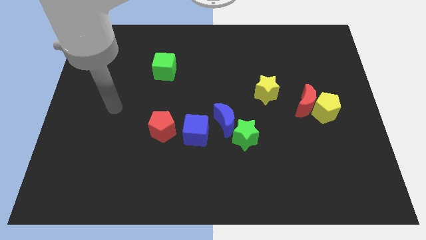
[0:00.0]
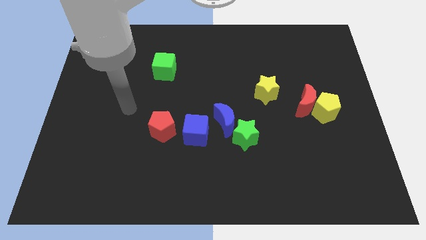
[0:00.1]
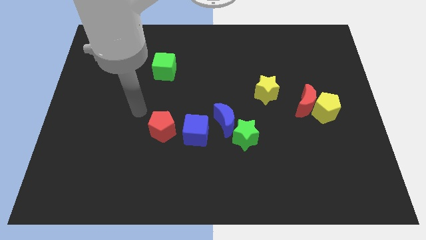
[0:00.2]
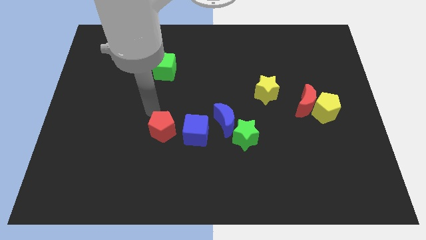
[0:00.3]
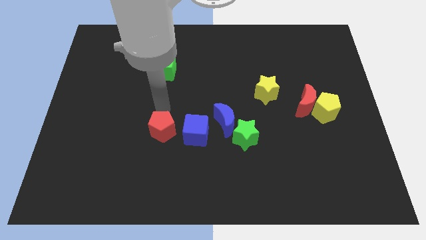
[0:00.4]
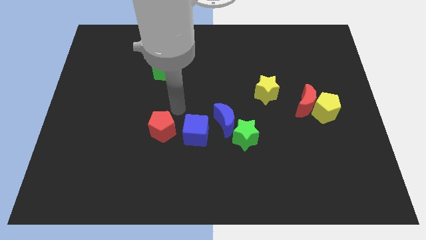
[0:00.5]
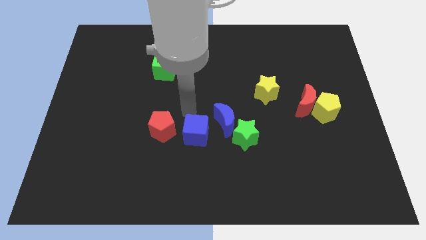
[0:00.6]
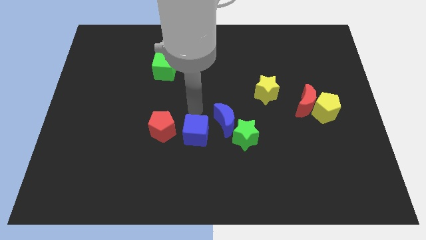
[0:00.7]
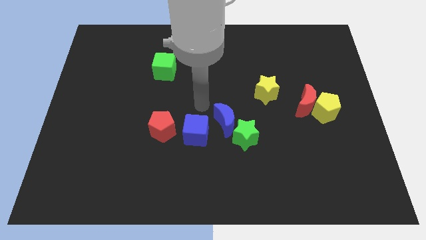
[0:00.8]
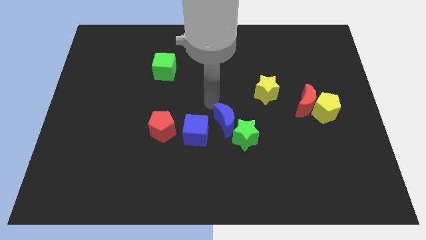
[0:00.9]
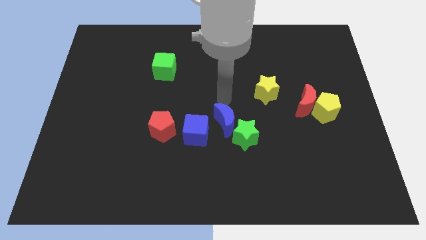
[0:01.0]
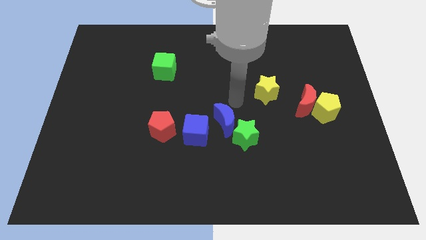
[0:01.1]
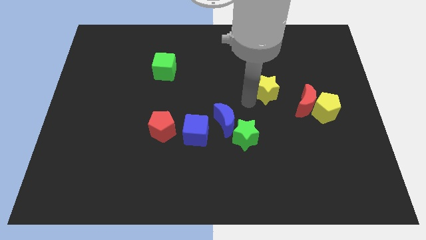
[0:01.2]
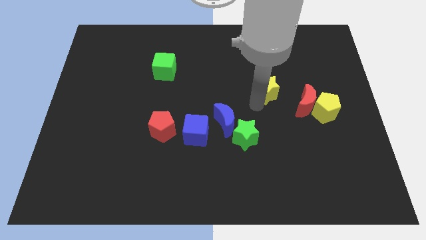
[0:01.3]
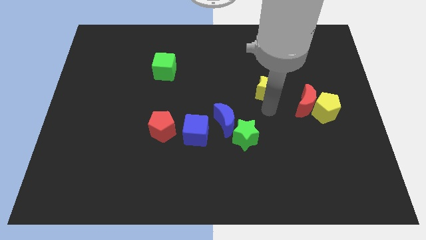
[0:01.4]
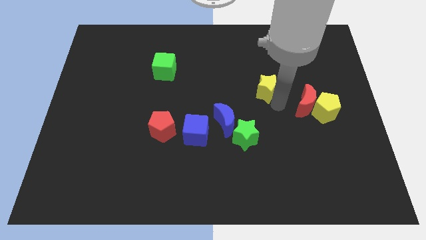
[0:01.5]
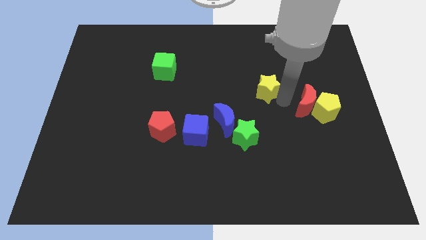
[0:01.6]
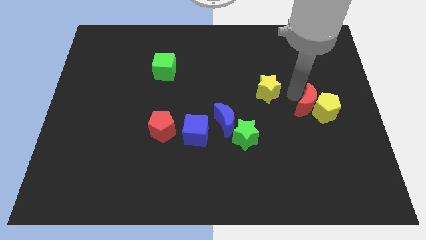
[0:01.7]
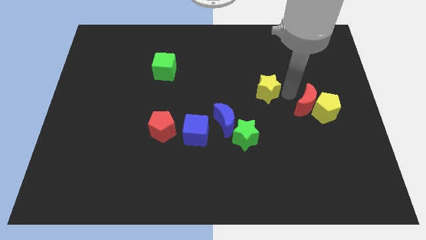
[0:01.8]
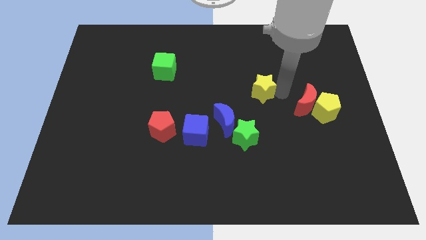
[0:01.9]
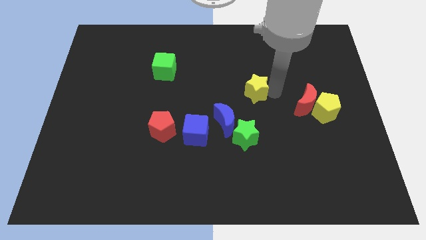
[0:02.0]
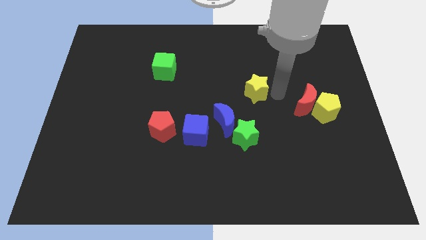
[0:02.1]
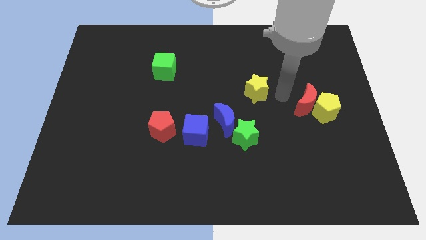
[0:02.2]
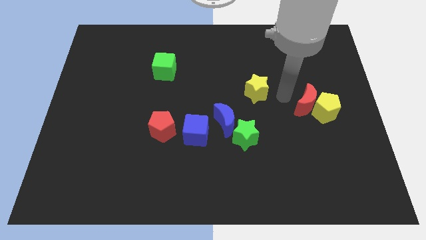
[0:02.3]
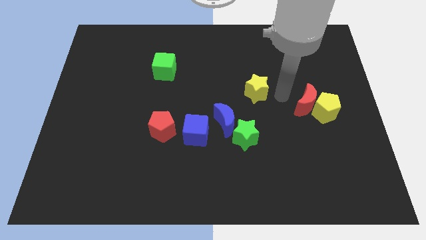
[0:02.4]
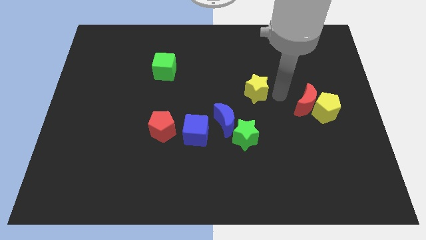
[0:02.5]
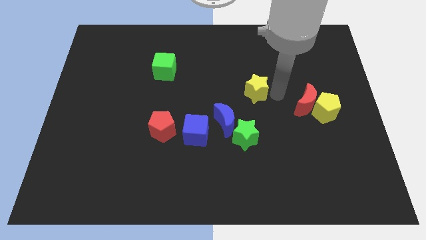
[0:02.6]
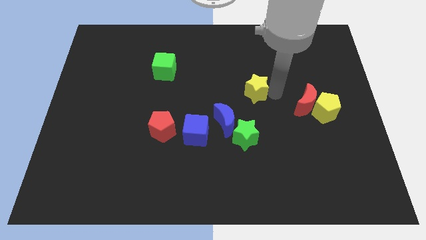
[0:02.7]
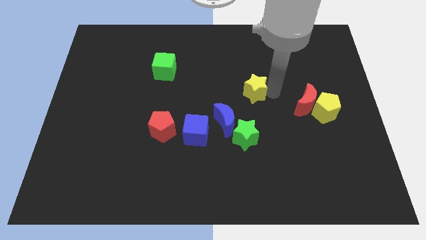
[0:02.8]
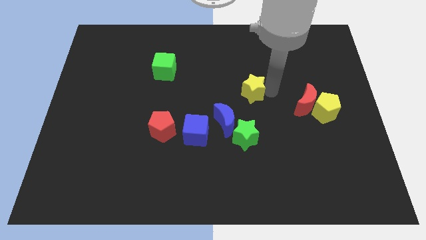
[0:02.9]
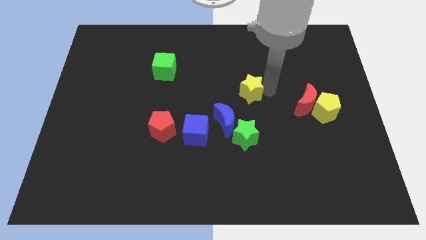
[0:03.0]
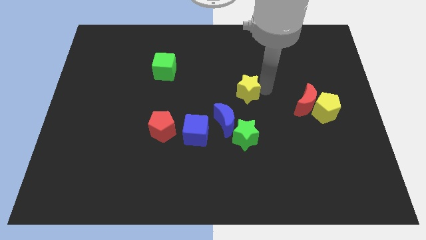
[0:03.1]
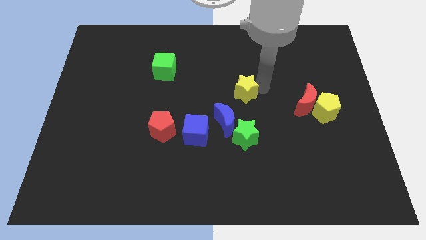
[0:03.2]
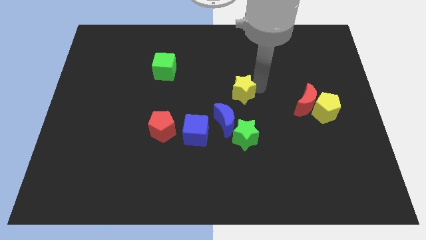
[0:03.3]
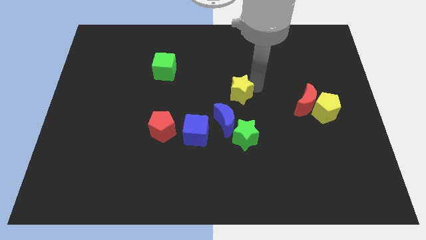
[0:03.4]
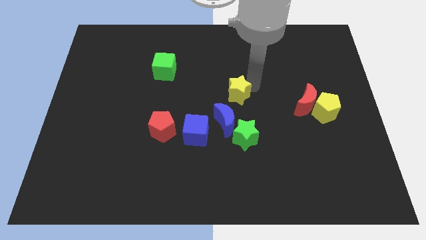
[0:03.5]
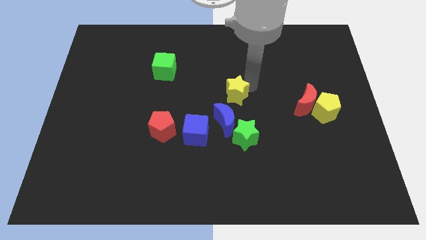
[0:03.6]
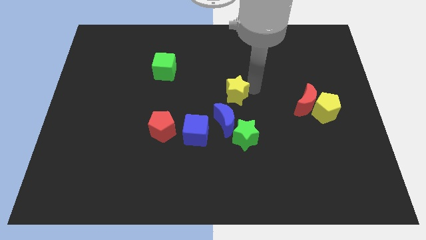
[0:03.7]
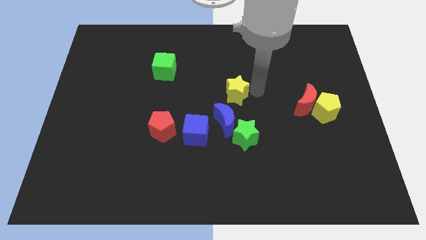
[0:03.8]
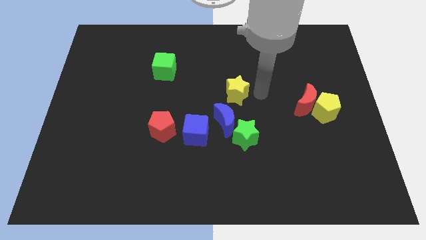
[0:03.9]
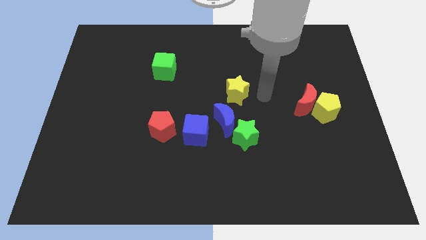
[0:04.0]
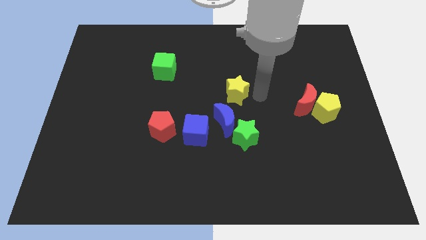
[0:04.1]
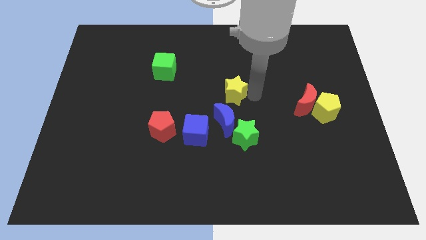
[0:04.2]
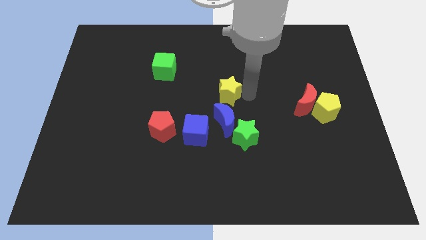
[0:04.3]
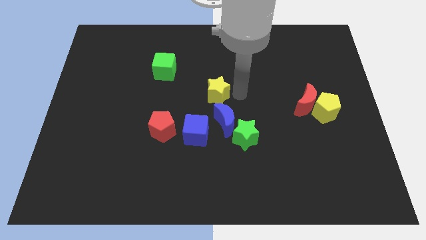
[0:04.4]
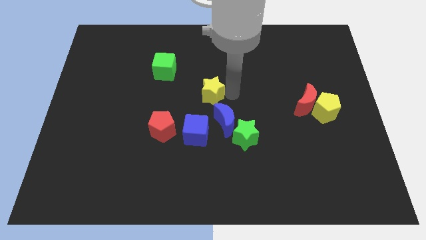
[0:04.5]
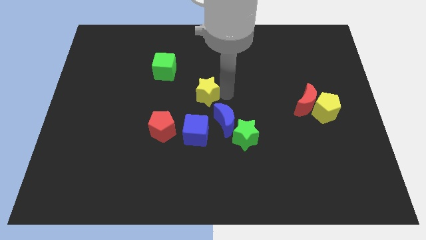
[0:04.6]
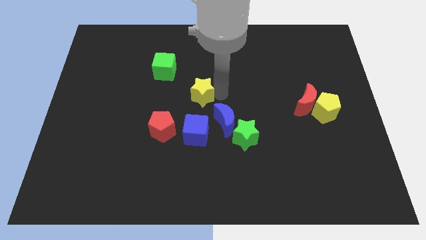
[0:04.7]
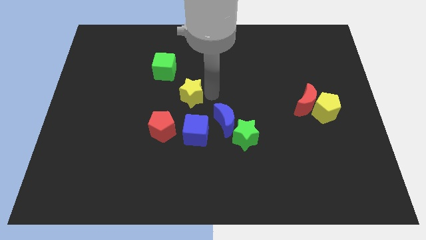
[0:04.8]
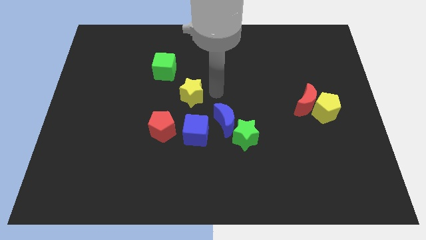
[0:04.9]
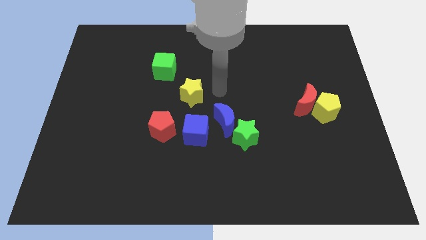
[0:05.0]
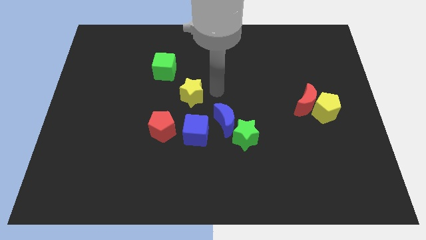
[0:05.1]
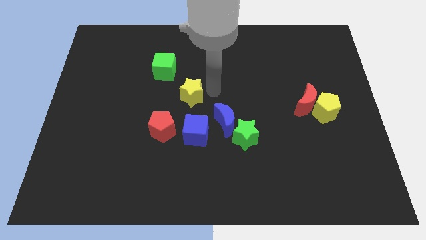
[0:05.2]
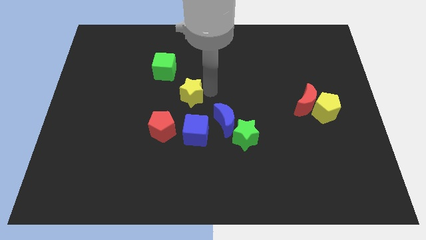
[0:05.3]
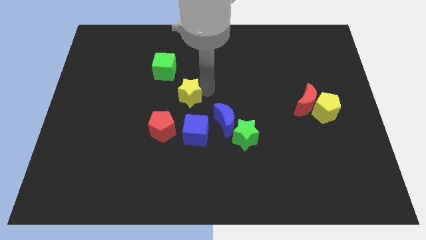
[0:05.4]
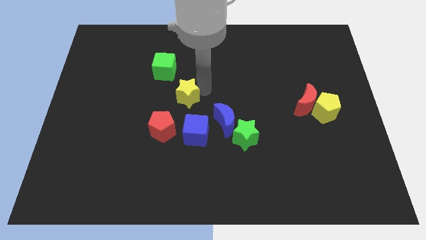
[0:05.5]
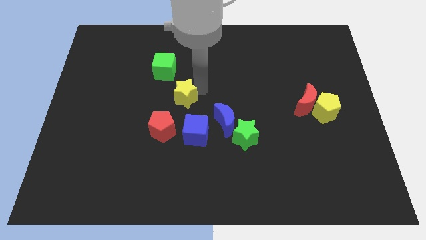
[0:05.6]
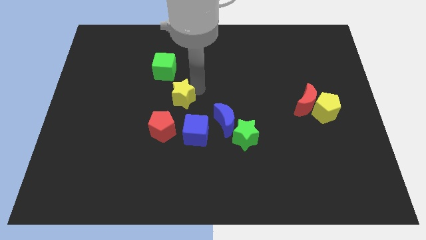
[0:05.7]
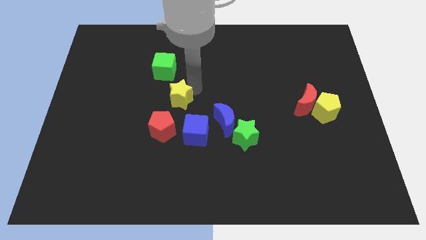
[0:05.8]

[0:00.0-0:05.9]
slide the yellow star below the green cube

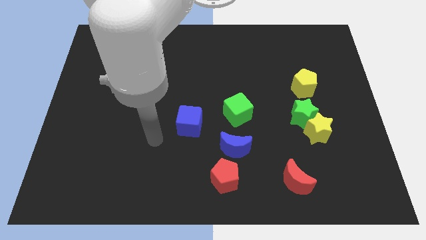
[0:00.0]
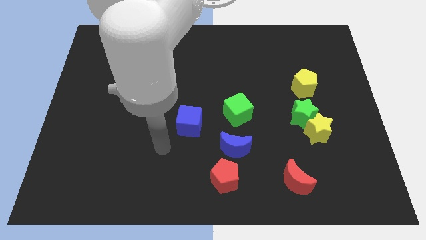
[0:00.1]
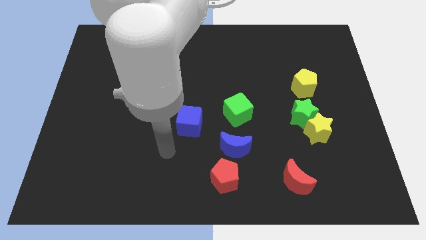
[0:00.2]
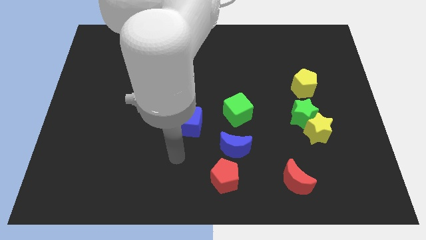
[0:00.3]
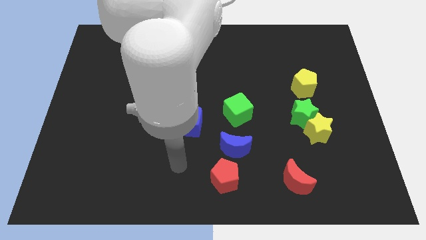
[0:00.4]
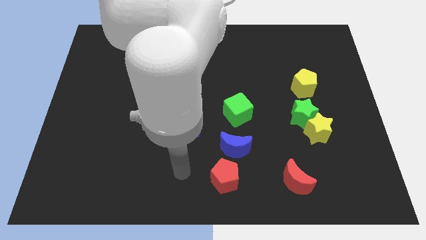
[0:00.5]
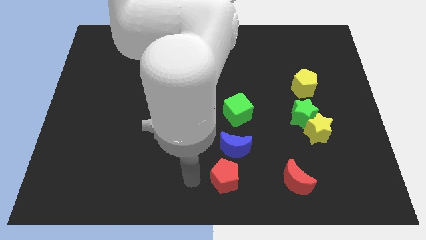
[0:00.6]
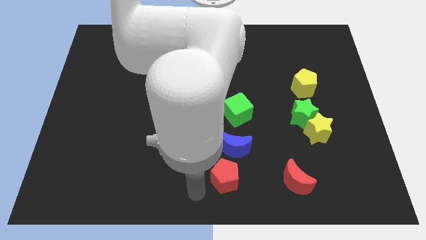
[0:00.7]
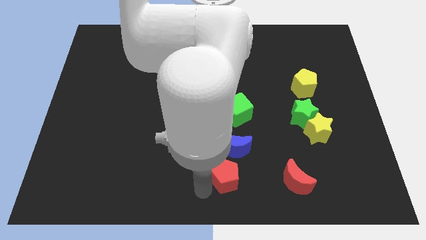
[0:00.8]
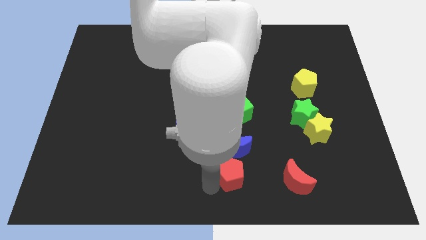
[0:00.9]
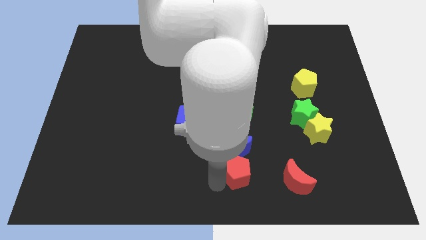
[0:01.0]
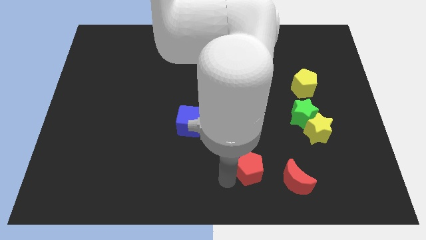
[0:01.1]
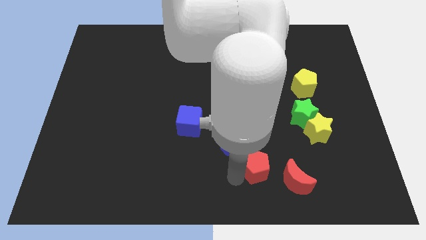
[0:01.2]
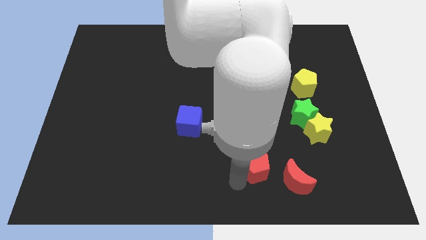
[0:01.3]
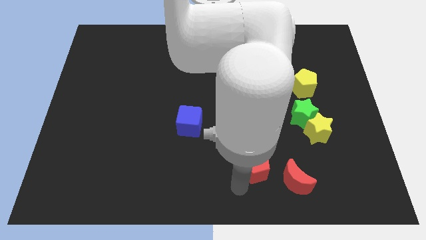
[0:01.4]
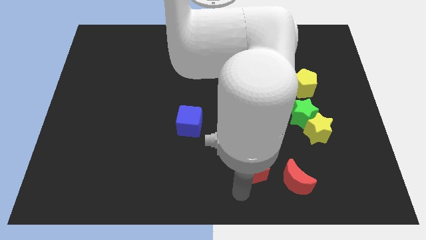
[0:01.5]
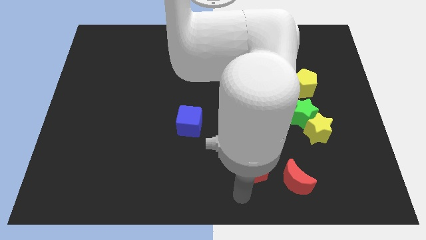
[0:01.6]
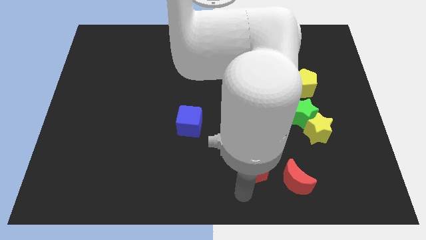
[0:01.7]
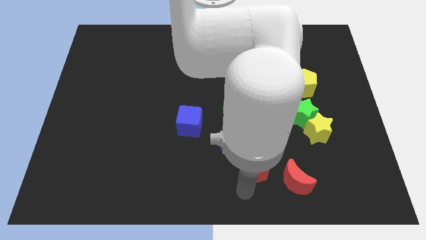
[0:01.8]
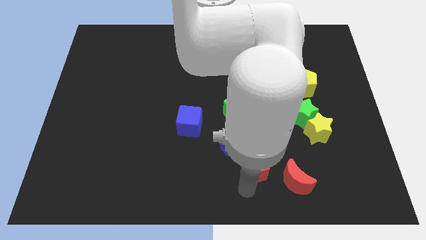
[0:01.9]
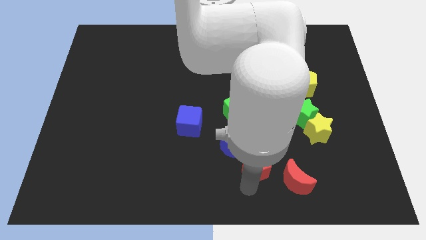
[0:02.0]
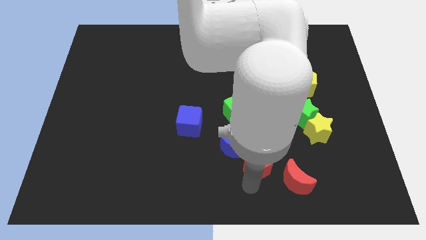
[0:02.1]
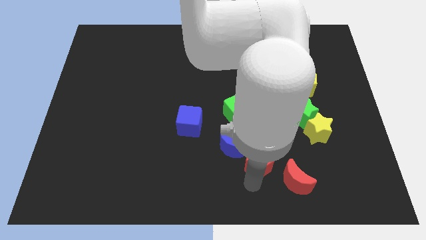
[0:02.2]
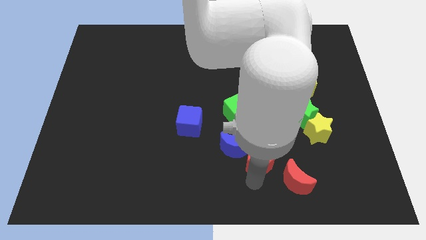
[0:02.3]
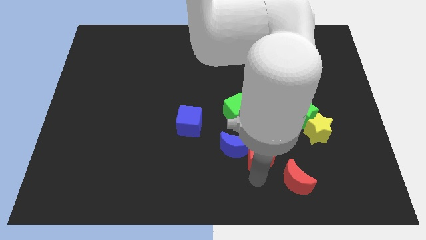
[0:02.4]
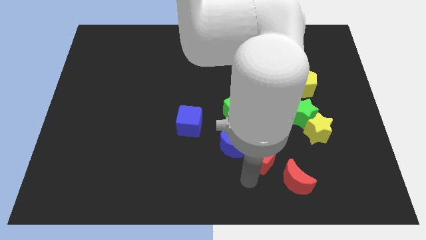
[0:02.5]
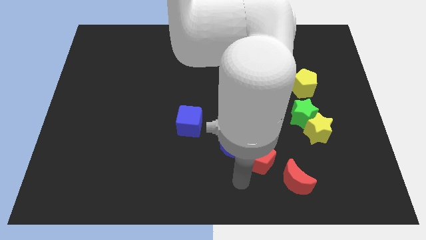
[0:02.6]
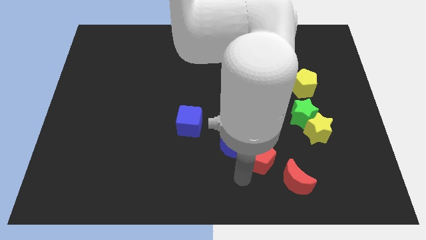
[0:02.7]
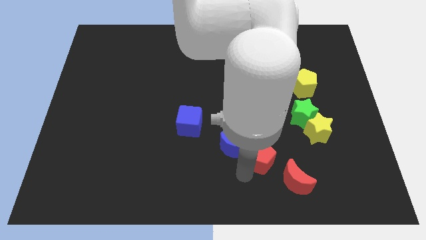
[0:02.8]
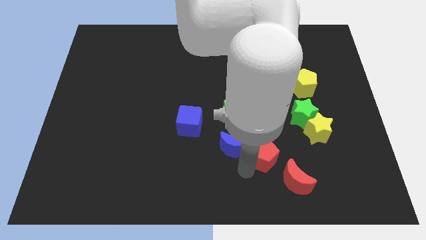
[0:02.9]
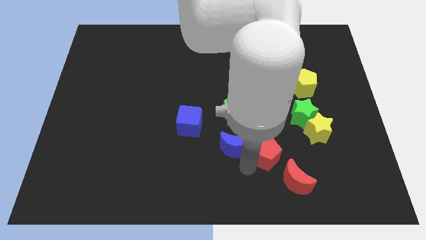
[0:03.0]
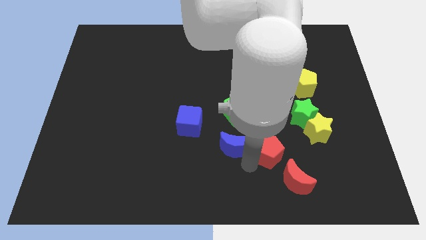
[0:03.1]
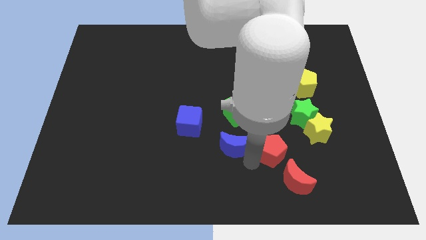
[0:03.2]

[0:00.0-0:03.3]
put the red pentagon to the bottom left side of the green star
